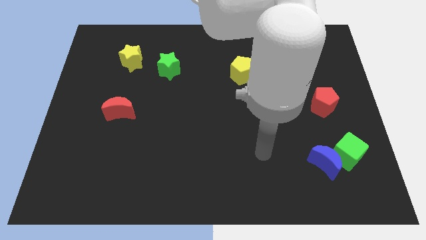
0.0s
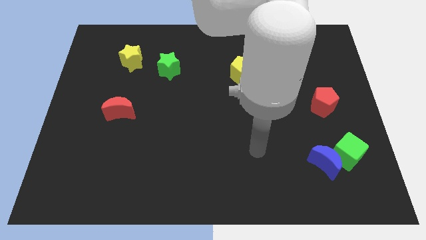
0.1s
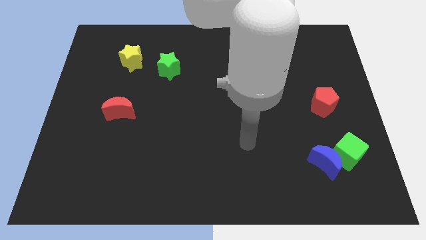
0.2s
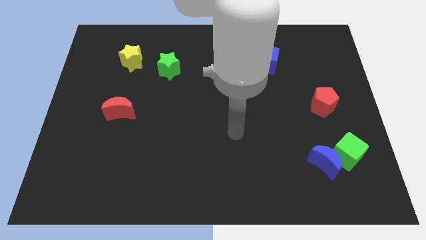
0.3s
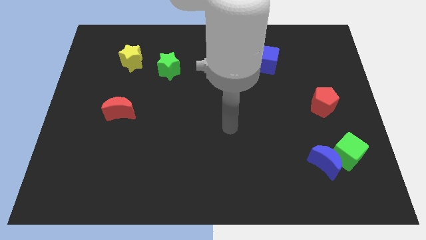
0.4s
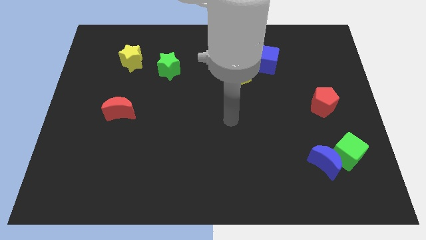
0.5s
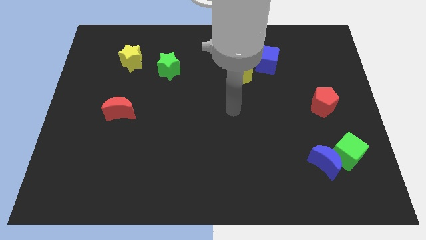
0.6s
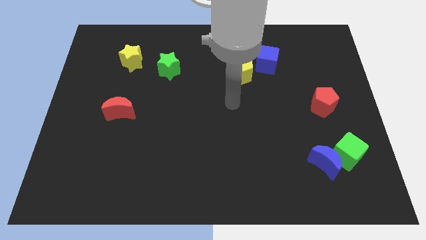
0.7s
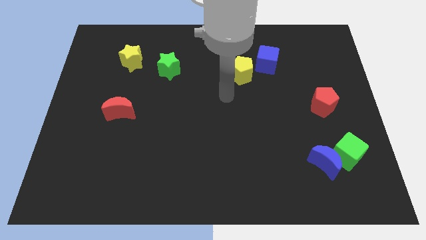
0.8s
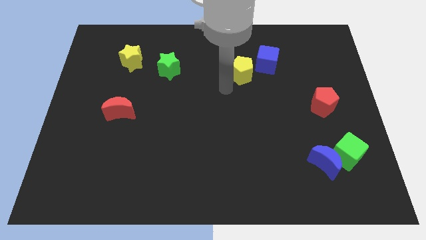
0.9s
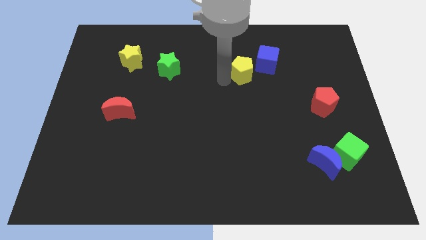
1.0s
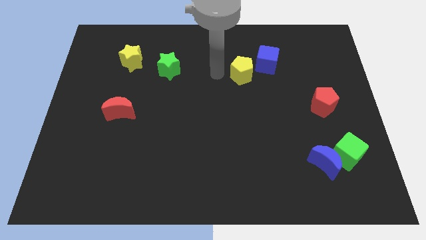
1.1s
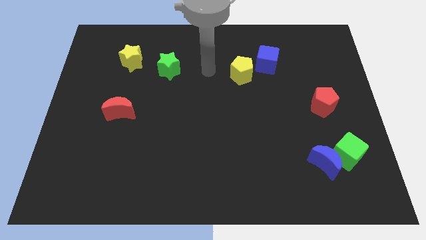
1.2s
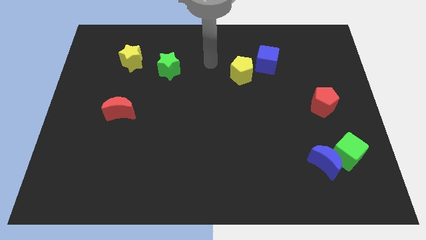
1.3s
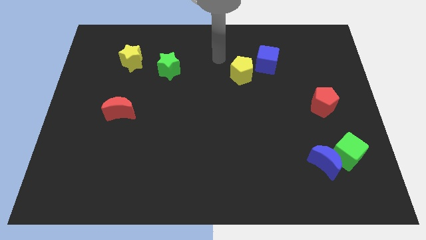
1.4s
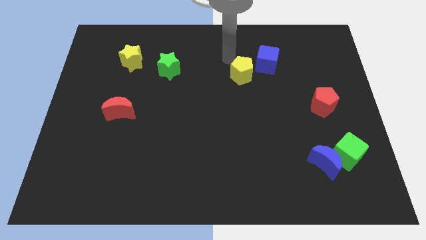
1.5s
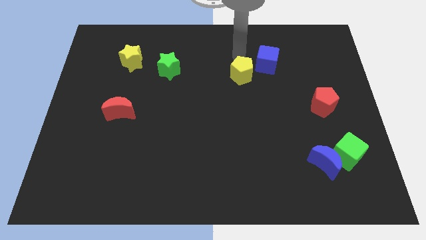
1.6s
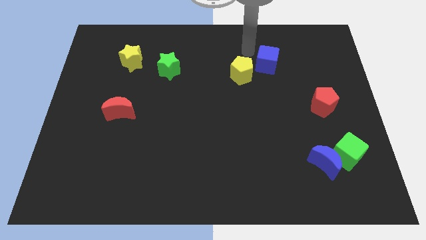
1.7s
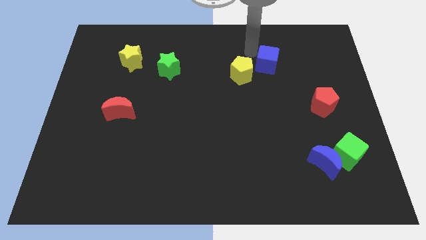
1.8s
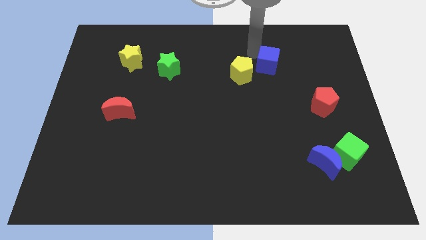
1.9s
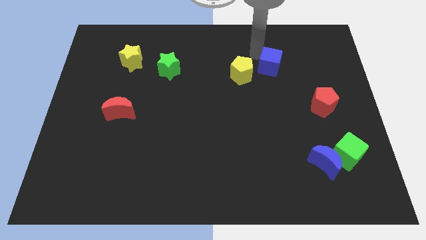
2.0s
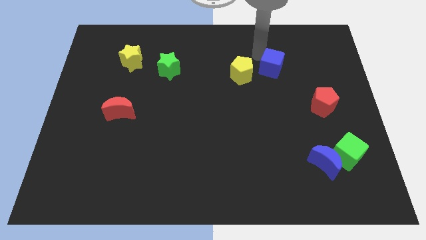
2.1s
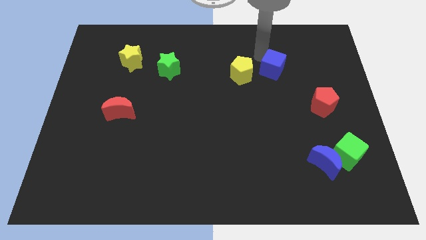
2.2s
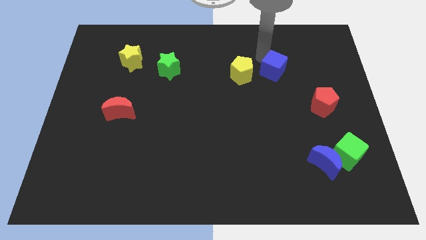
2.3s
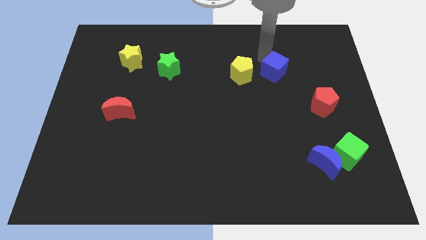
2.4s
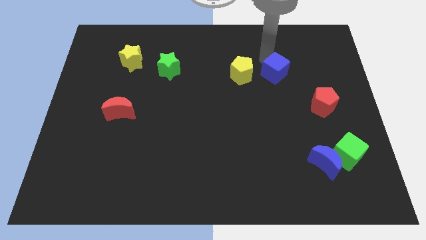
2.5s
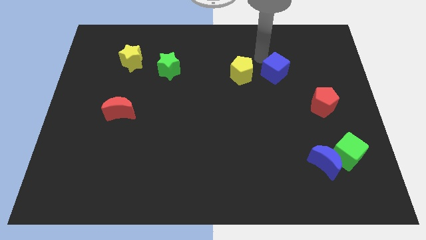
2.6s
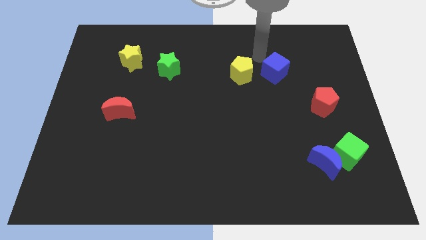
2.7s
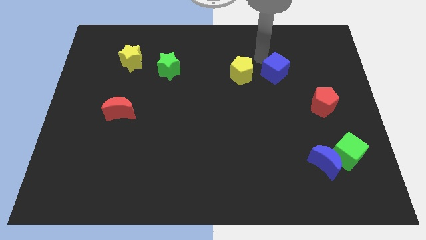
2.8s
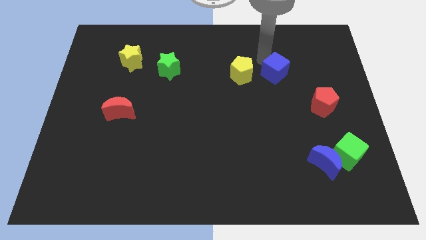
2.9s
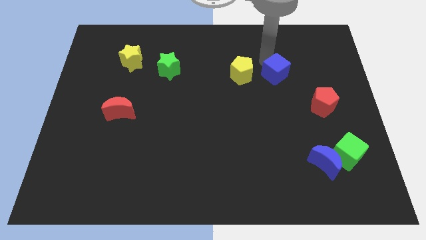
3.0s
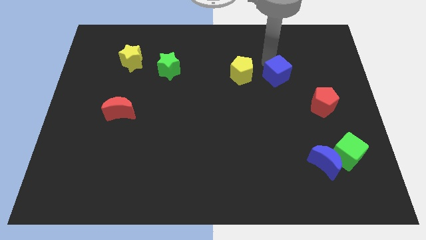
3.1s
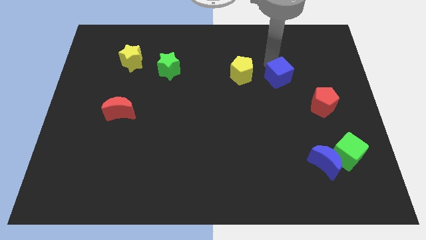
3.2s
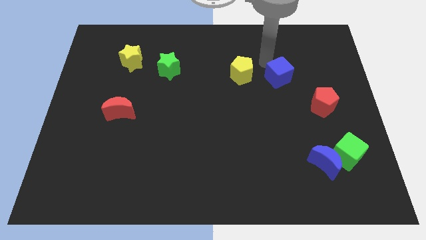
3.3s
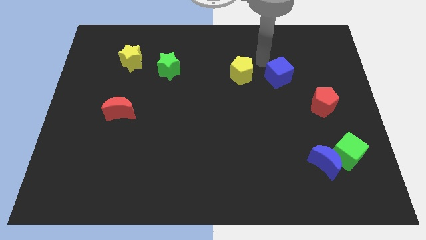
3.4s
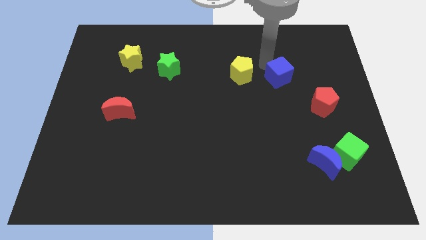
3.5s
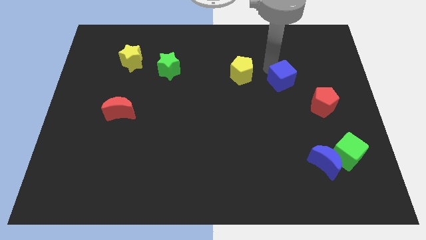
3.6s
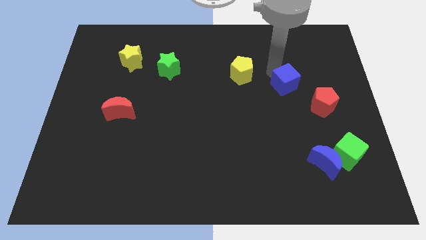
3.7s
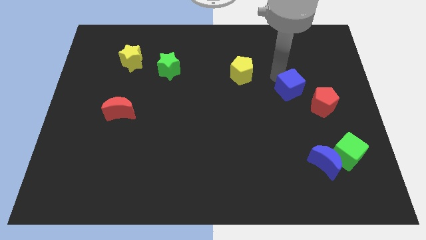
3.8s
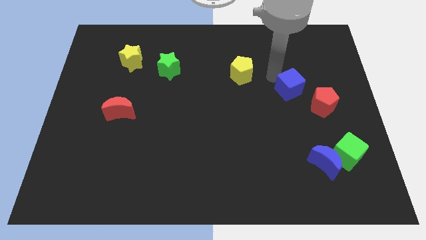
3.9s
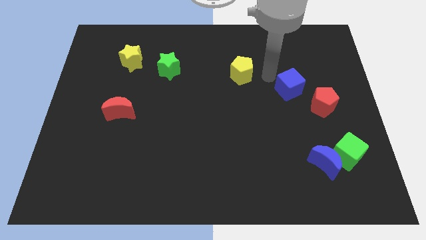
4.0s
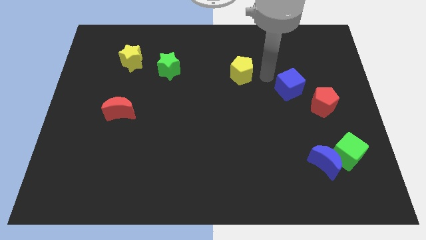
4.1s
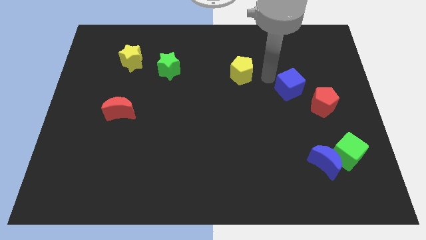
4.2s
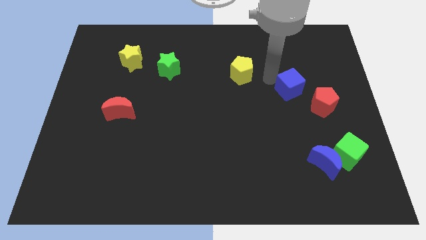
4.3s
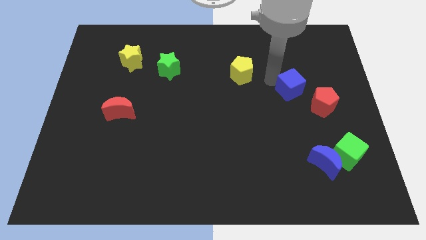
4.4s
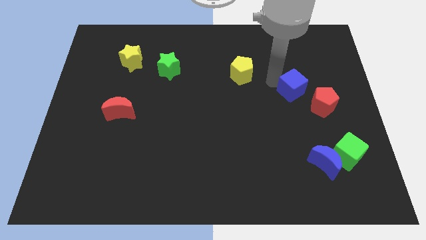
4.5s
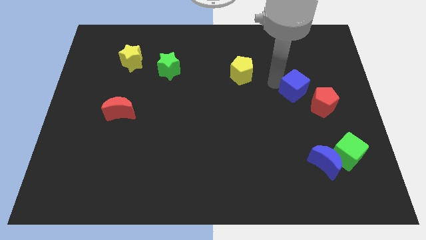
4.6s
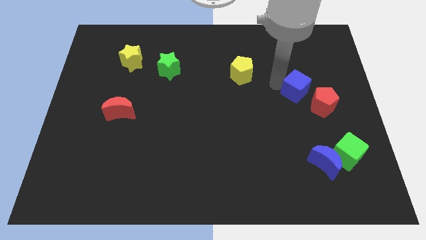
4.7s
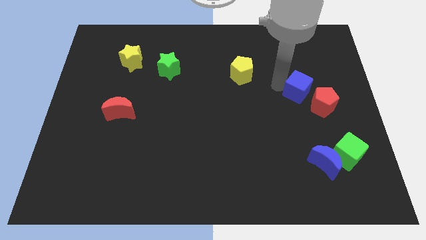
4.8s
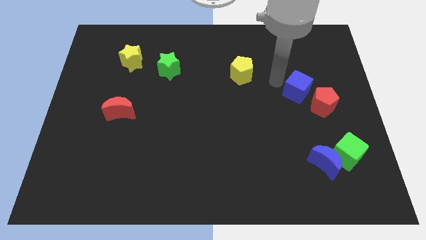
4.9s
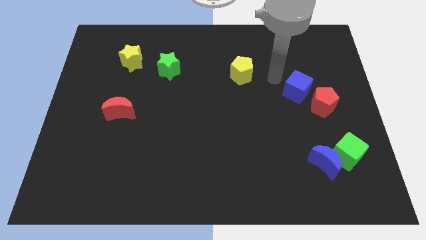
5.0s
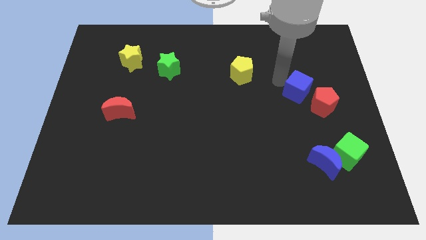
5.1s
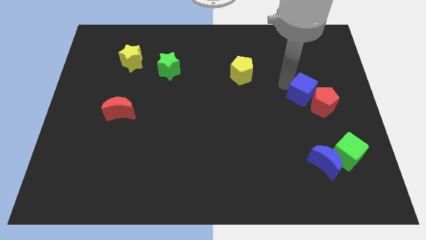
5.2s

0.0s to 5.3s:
slide the blue cube next to the red pentagon

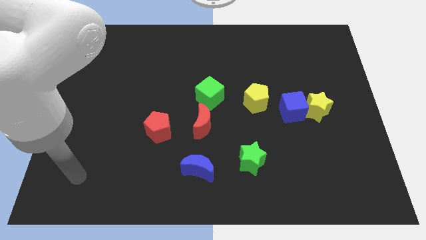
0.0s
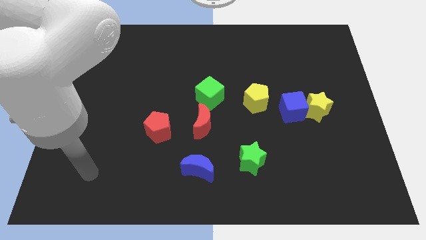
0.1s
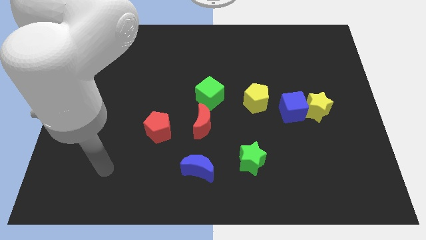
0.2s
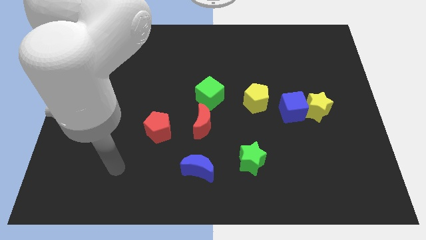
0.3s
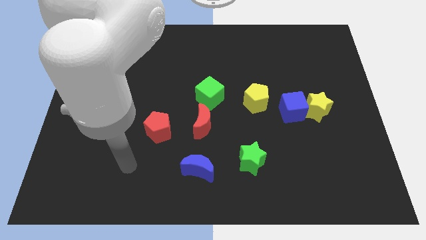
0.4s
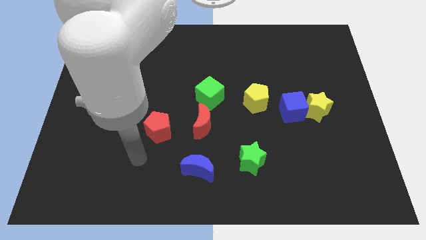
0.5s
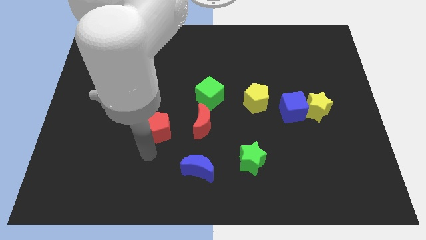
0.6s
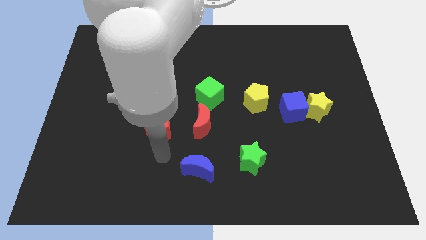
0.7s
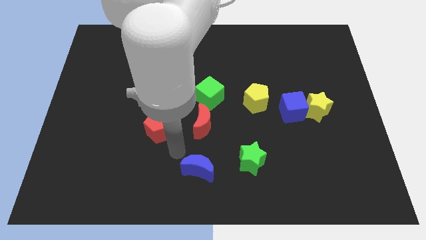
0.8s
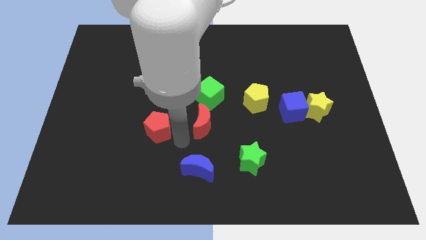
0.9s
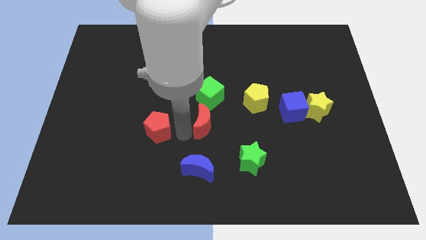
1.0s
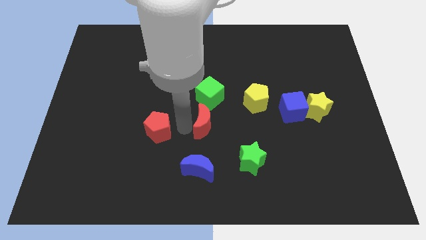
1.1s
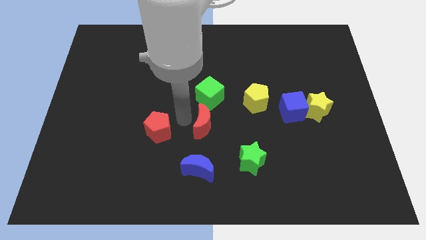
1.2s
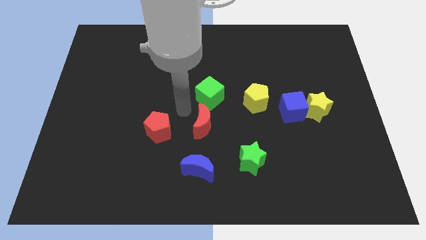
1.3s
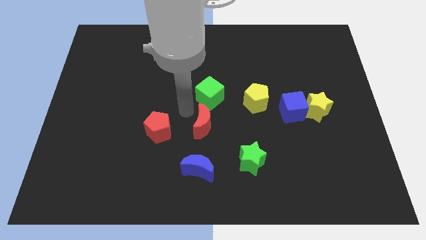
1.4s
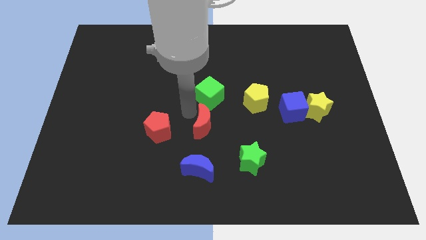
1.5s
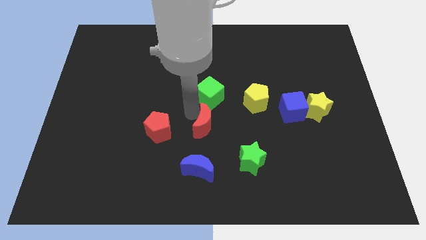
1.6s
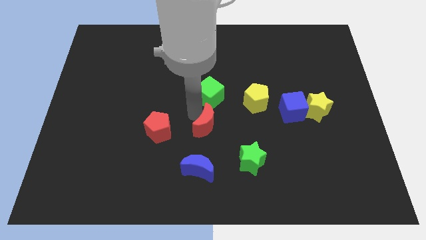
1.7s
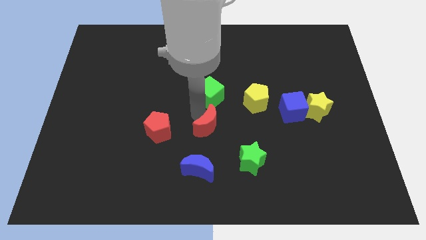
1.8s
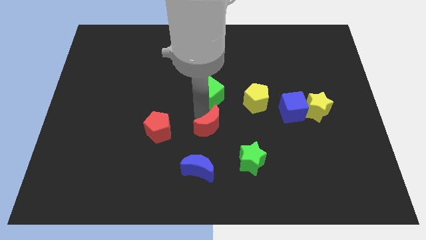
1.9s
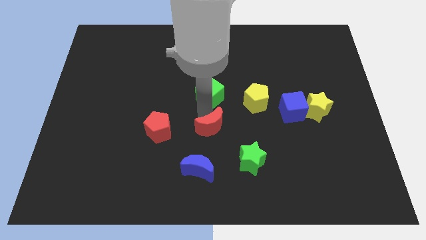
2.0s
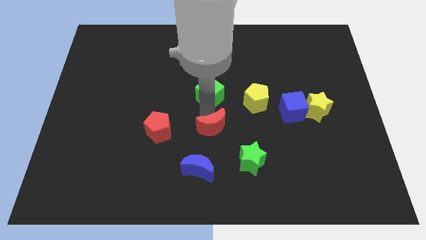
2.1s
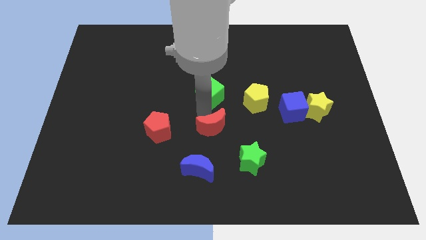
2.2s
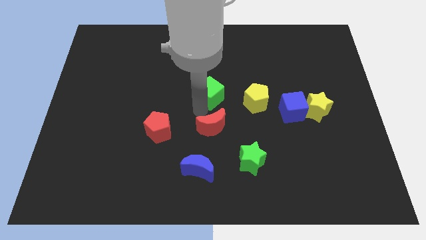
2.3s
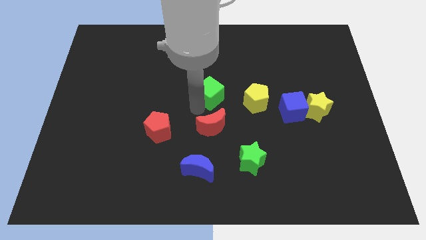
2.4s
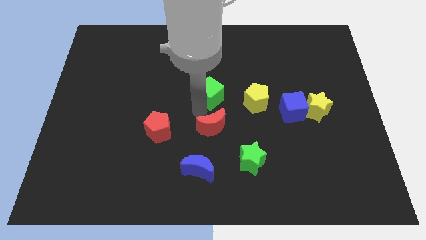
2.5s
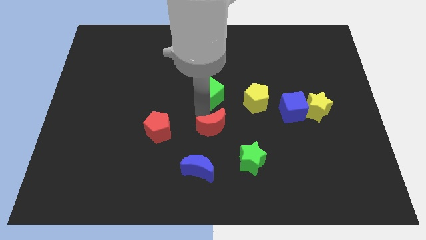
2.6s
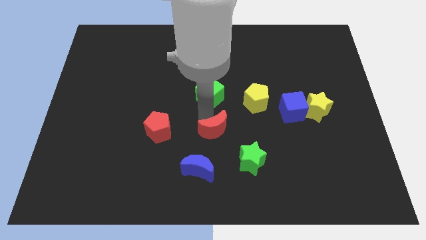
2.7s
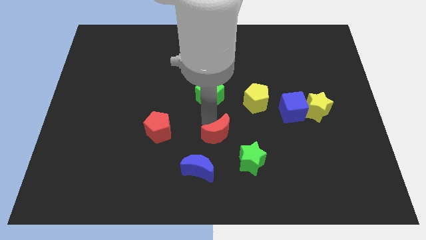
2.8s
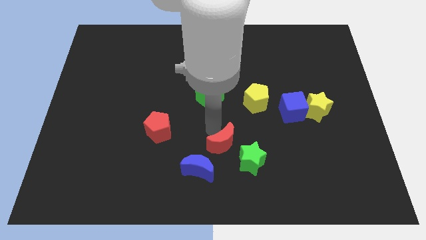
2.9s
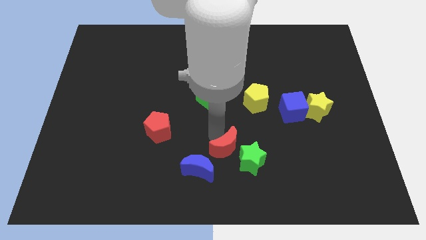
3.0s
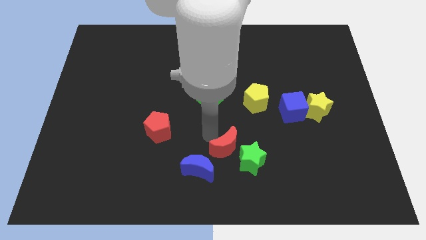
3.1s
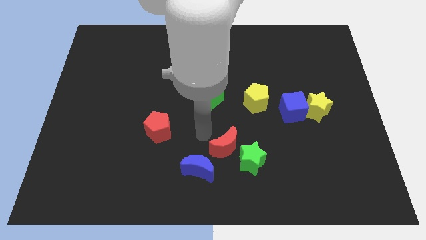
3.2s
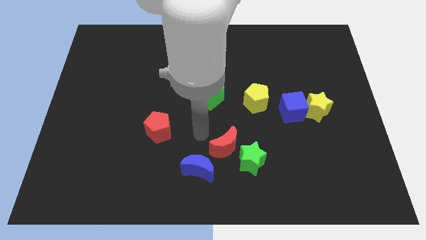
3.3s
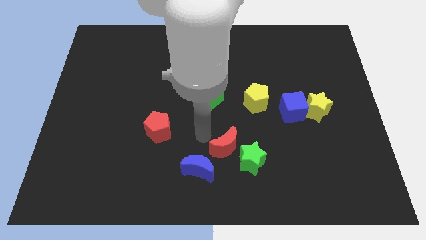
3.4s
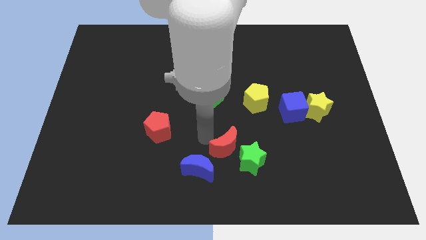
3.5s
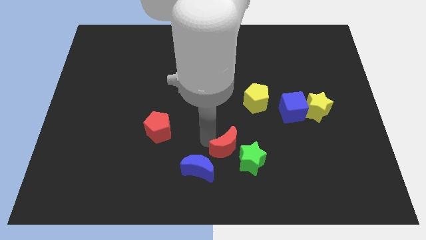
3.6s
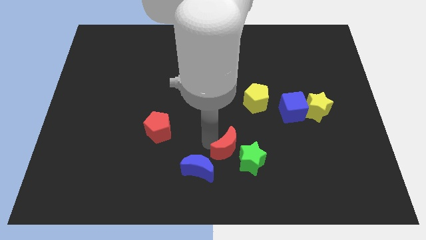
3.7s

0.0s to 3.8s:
move the red moon to the green star
